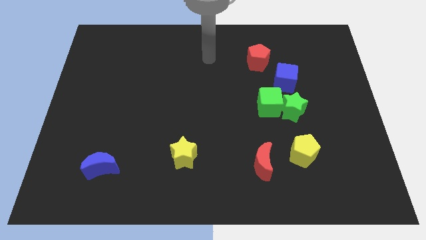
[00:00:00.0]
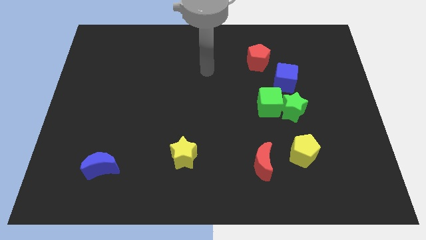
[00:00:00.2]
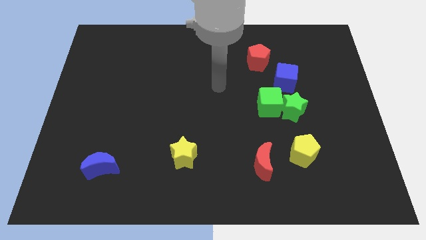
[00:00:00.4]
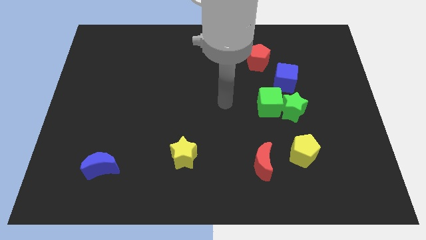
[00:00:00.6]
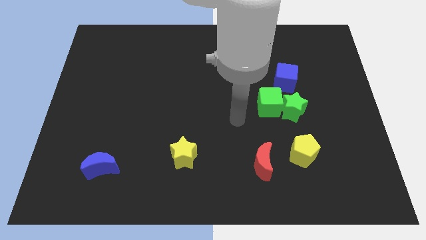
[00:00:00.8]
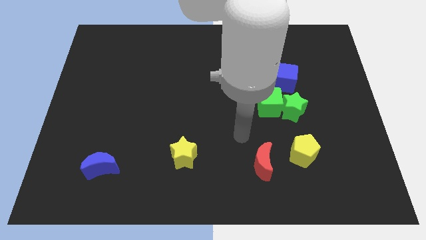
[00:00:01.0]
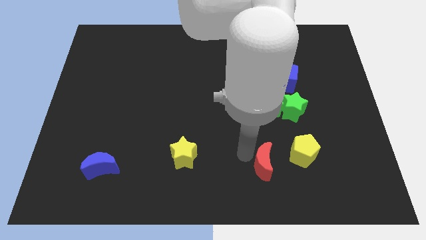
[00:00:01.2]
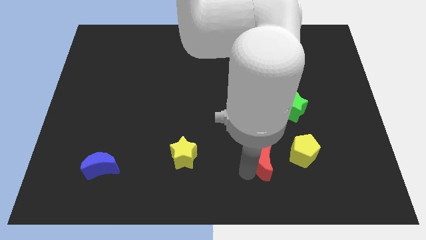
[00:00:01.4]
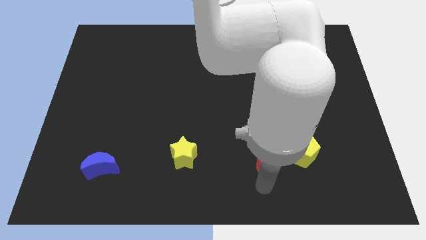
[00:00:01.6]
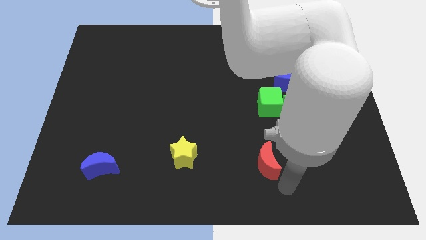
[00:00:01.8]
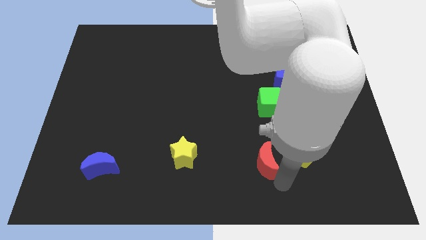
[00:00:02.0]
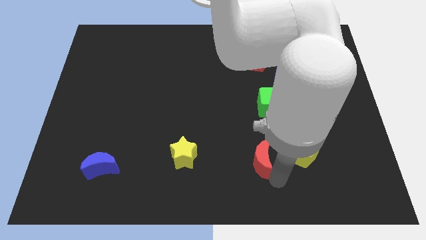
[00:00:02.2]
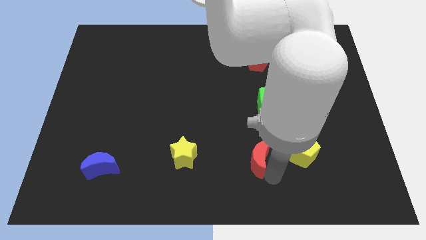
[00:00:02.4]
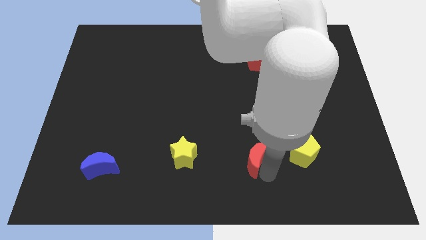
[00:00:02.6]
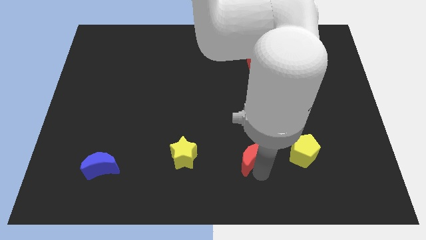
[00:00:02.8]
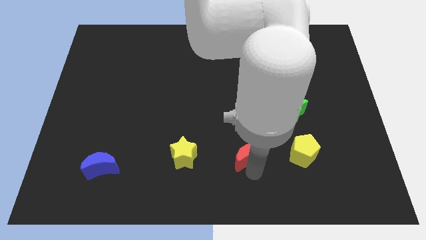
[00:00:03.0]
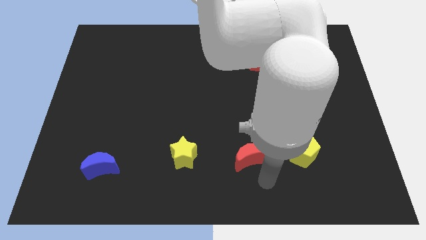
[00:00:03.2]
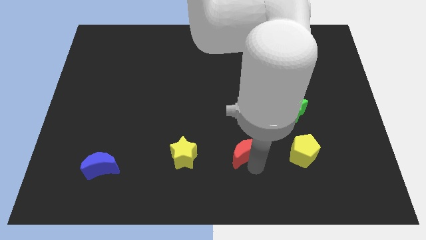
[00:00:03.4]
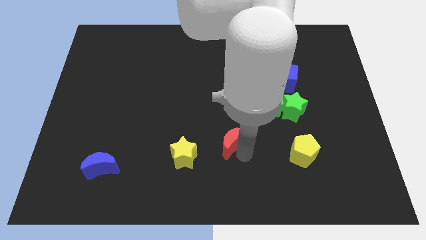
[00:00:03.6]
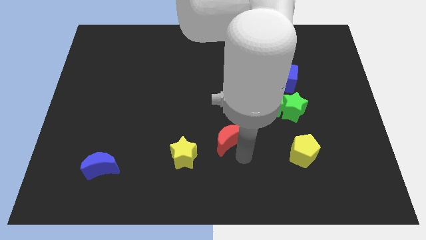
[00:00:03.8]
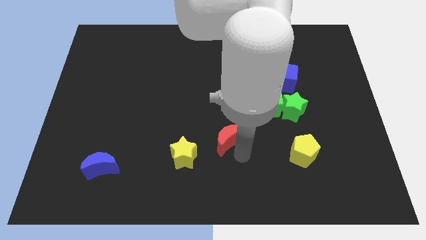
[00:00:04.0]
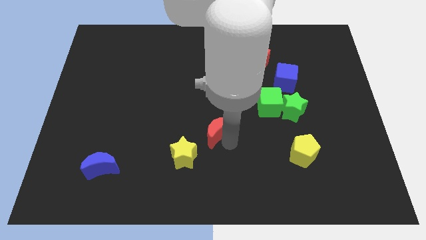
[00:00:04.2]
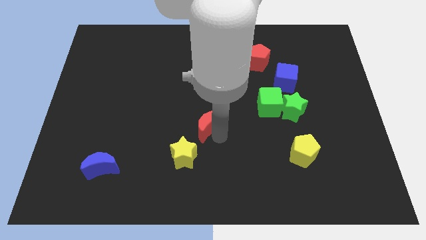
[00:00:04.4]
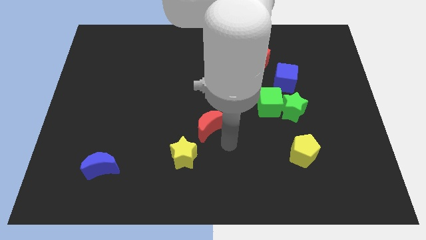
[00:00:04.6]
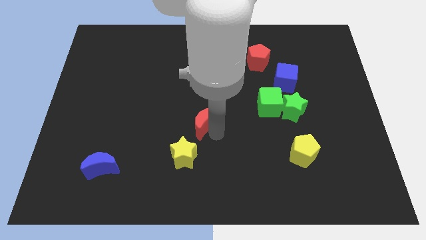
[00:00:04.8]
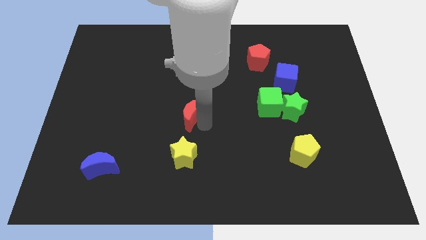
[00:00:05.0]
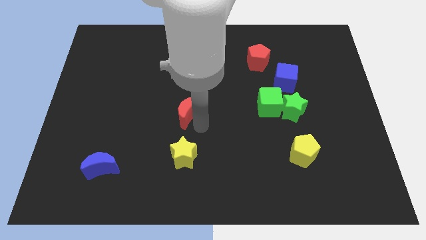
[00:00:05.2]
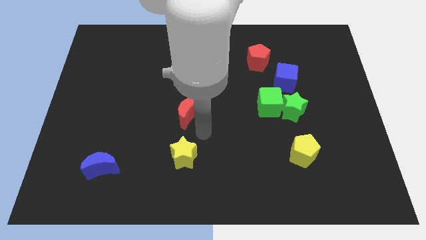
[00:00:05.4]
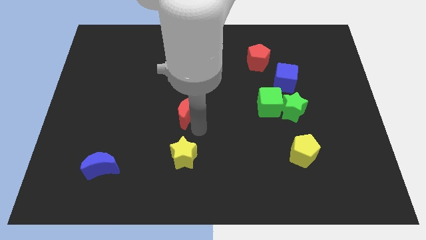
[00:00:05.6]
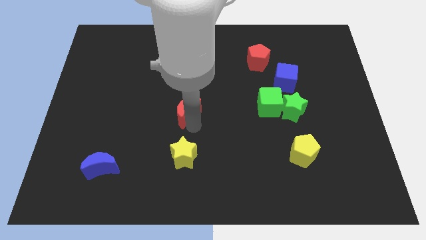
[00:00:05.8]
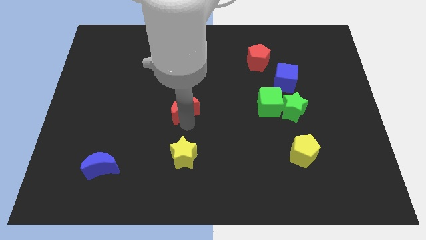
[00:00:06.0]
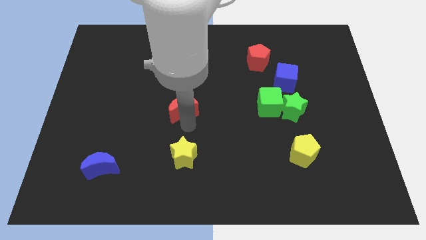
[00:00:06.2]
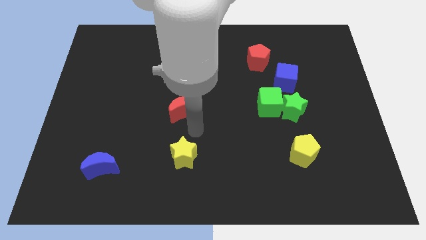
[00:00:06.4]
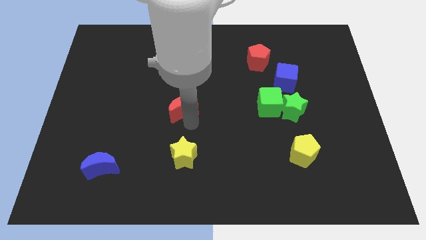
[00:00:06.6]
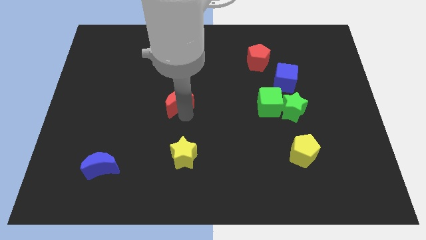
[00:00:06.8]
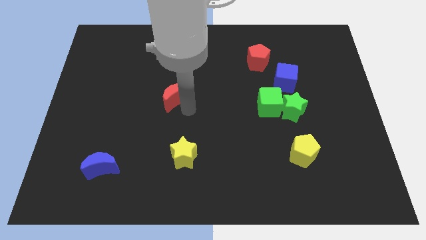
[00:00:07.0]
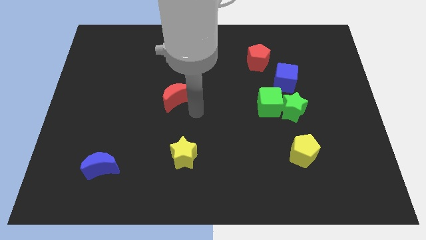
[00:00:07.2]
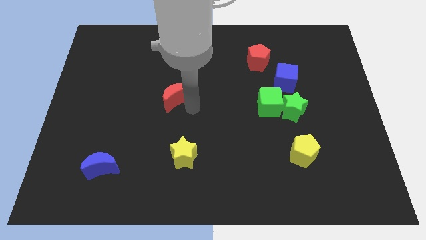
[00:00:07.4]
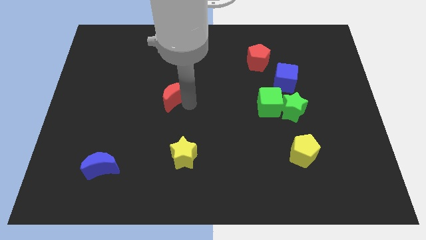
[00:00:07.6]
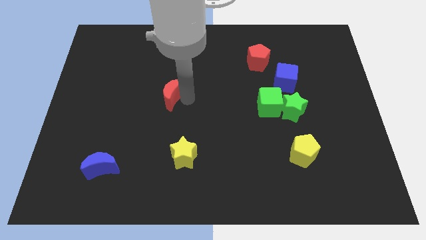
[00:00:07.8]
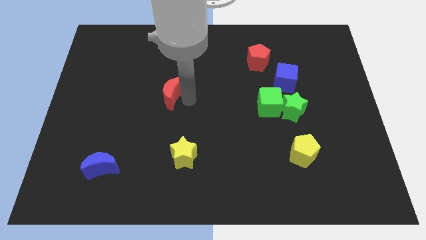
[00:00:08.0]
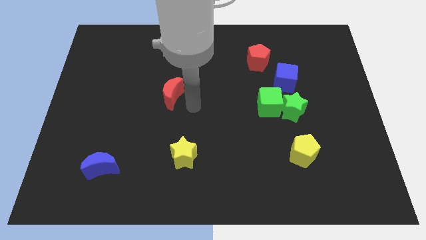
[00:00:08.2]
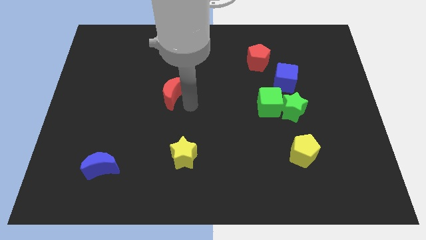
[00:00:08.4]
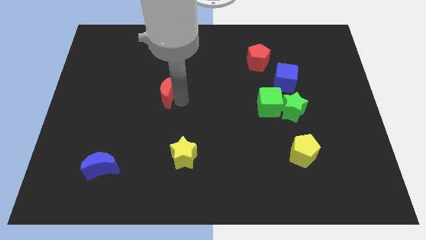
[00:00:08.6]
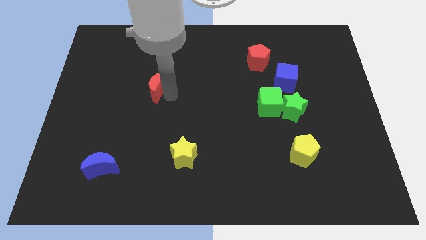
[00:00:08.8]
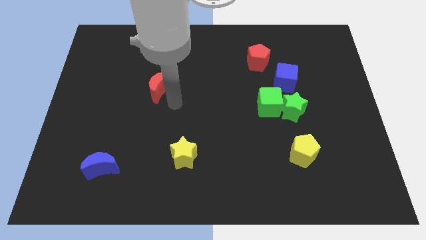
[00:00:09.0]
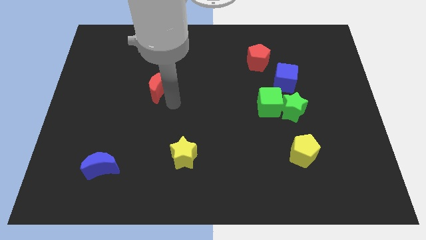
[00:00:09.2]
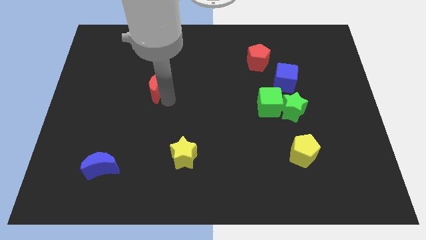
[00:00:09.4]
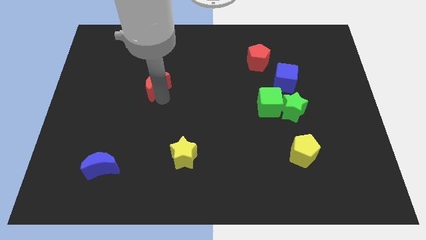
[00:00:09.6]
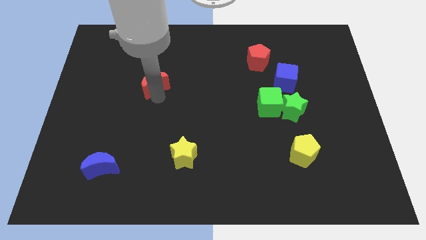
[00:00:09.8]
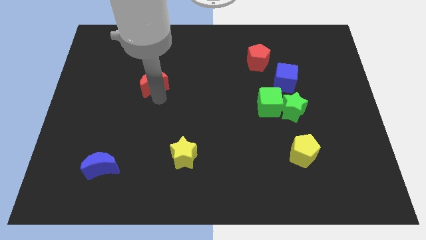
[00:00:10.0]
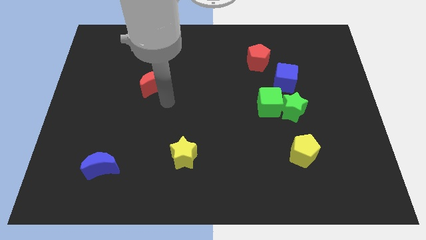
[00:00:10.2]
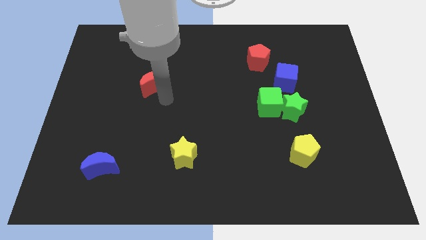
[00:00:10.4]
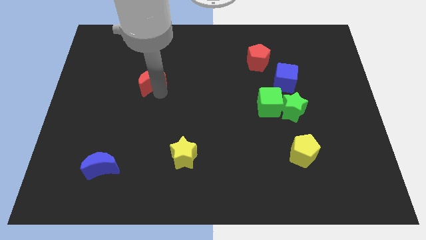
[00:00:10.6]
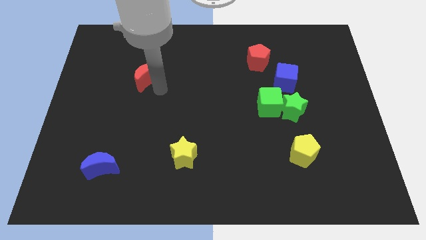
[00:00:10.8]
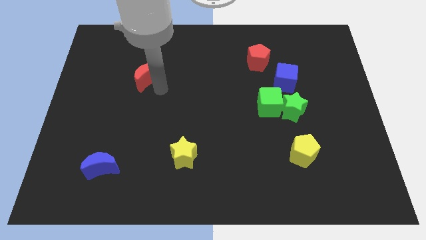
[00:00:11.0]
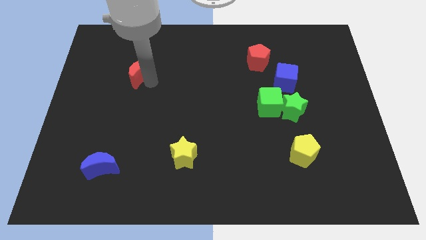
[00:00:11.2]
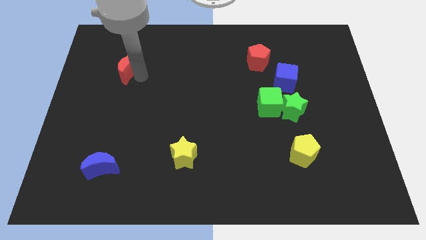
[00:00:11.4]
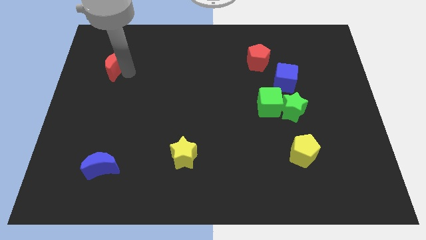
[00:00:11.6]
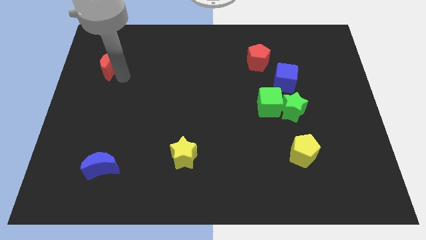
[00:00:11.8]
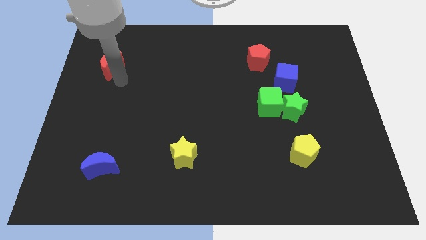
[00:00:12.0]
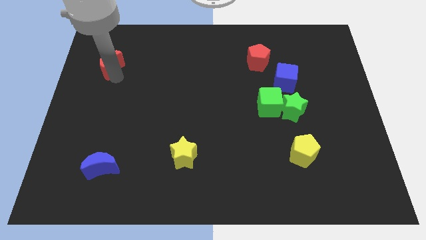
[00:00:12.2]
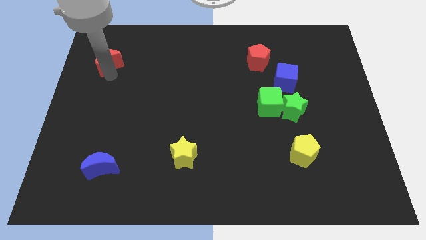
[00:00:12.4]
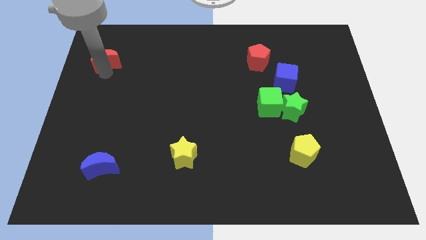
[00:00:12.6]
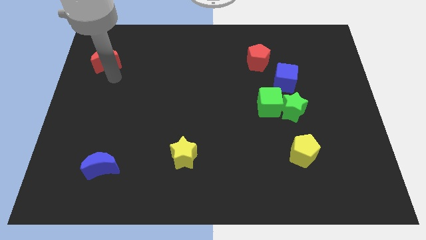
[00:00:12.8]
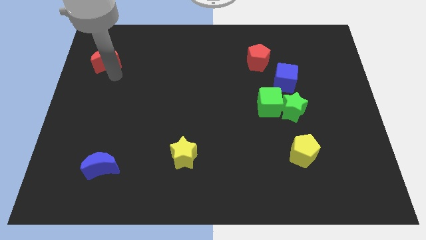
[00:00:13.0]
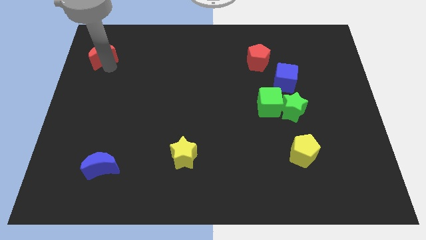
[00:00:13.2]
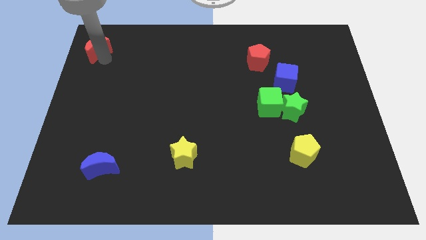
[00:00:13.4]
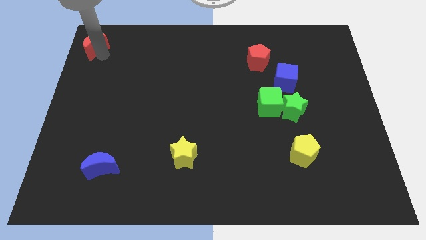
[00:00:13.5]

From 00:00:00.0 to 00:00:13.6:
push the red moon to the top left of the board
